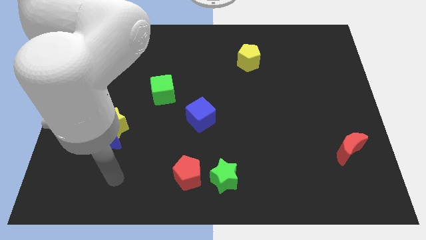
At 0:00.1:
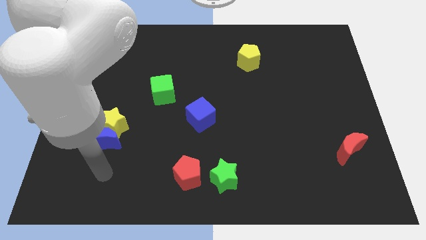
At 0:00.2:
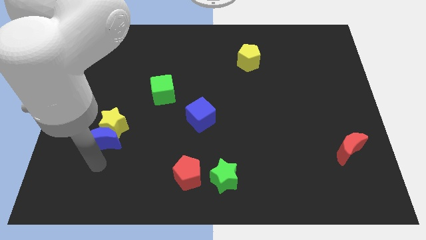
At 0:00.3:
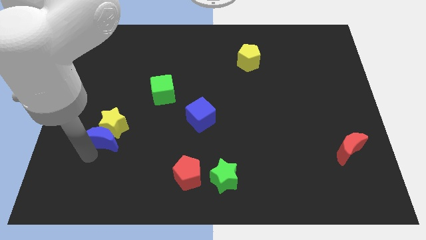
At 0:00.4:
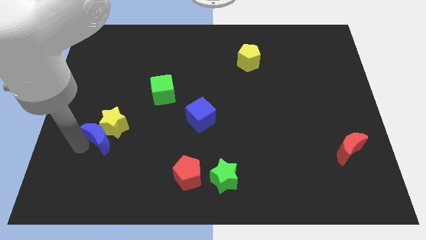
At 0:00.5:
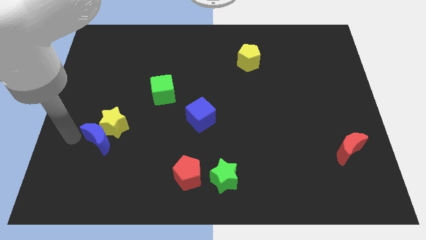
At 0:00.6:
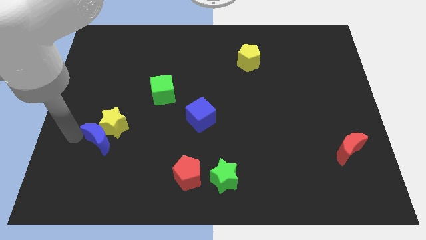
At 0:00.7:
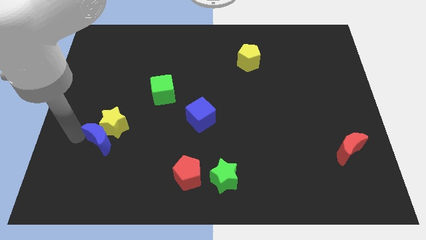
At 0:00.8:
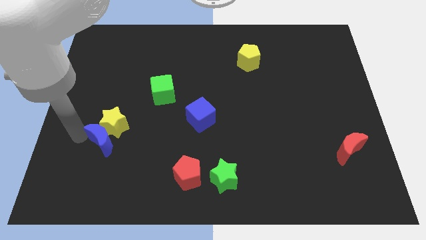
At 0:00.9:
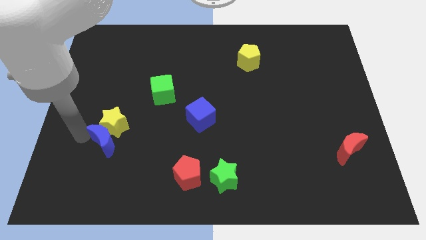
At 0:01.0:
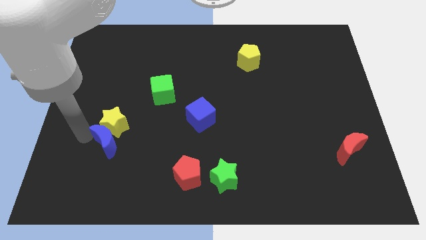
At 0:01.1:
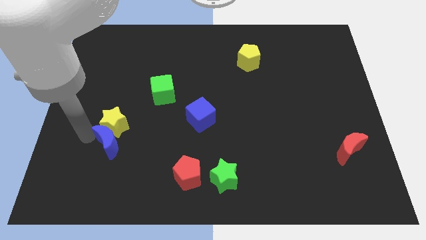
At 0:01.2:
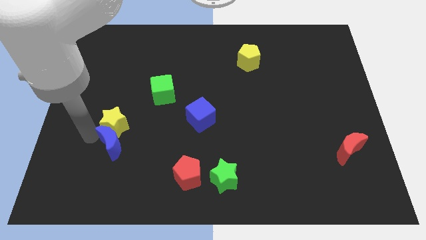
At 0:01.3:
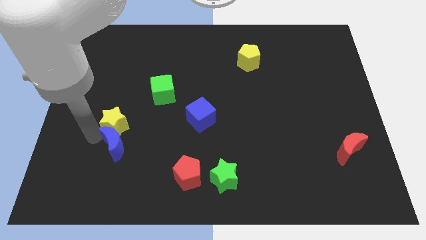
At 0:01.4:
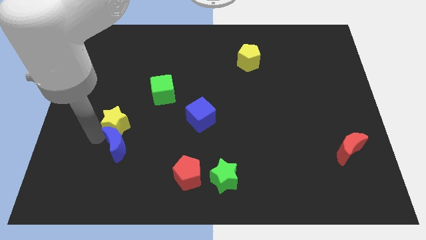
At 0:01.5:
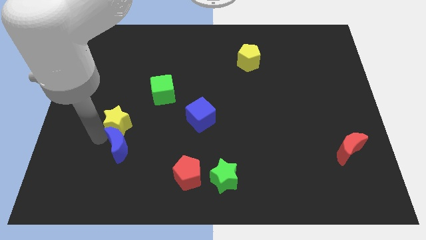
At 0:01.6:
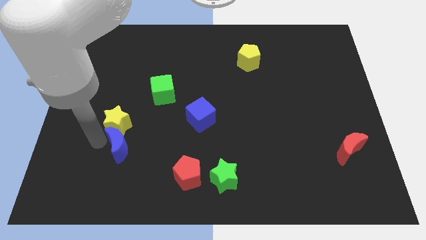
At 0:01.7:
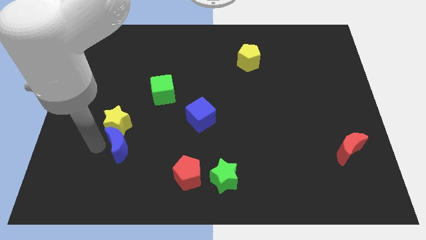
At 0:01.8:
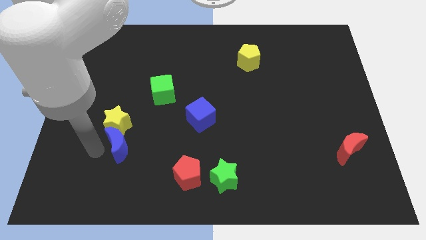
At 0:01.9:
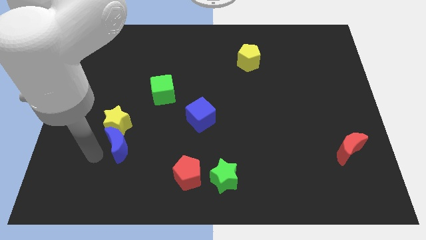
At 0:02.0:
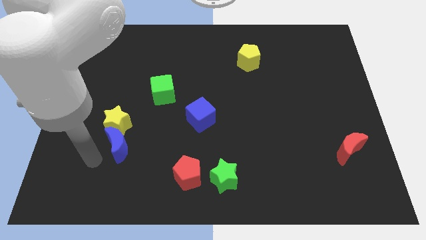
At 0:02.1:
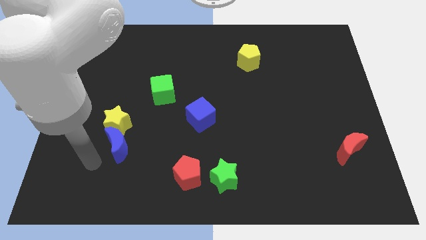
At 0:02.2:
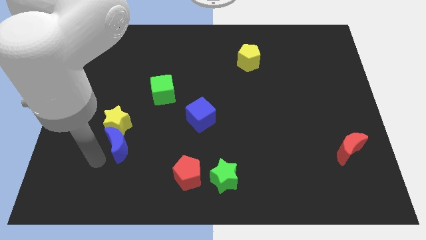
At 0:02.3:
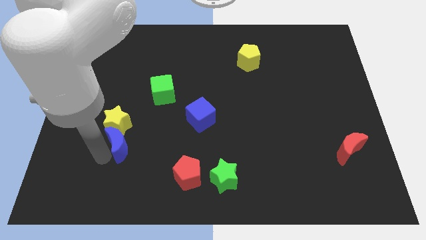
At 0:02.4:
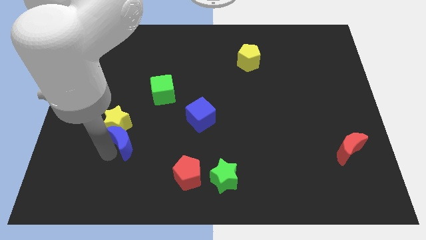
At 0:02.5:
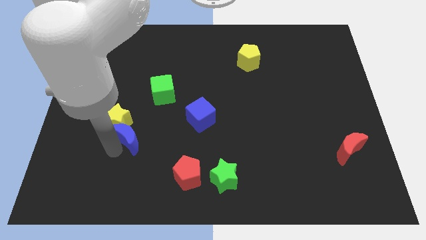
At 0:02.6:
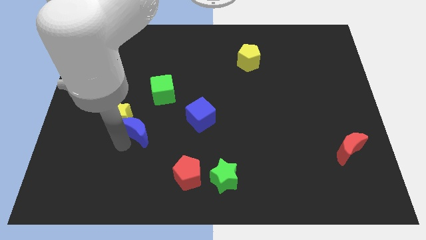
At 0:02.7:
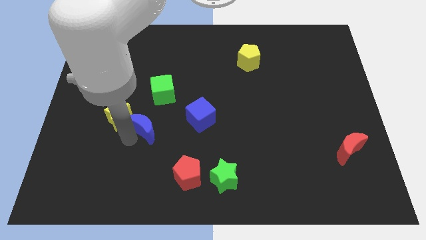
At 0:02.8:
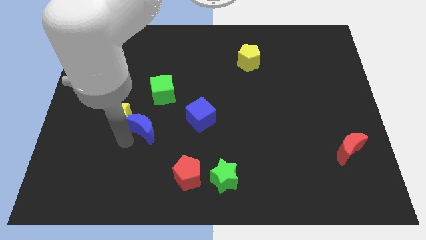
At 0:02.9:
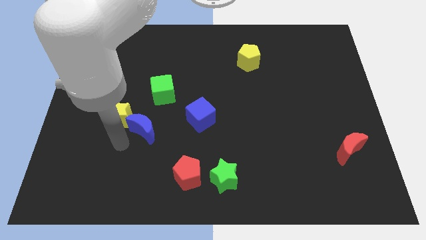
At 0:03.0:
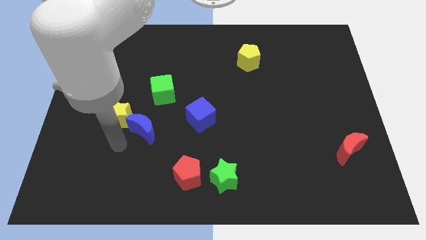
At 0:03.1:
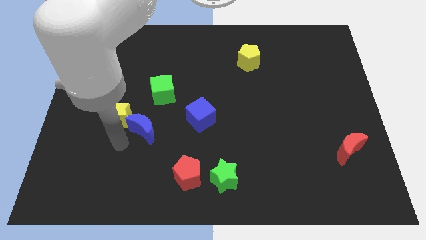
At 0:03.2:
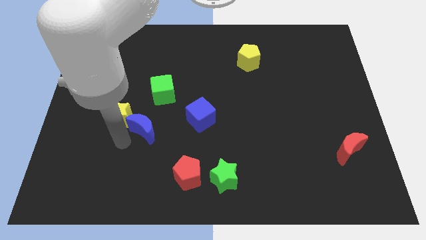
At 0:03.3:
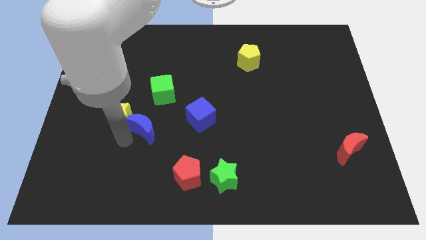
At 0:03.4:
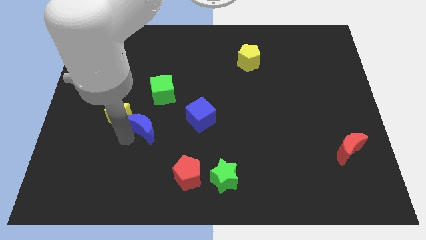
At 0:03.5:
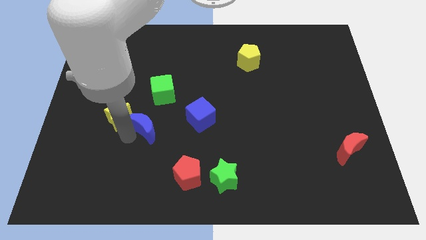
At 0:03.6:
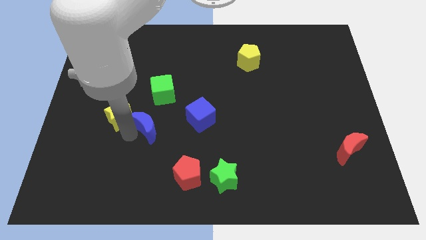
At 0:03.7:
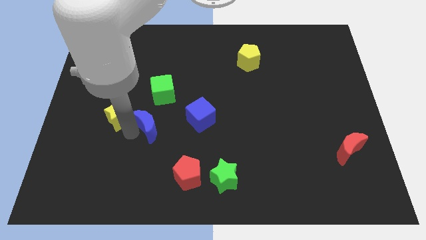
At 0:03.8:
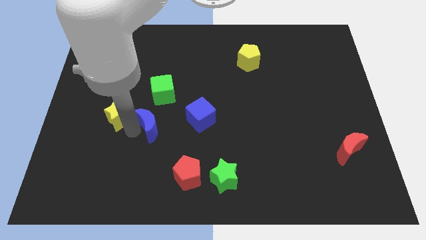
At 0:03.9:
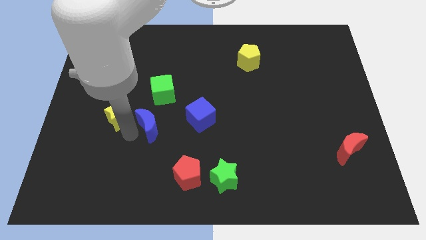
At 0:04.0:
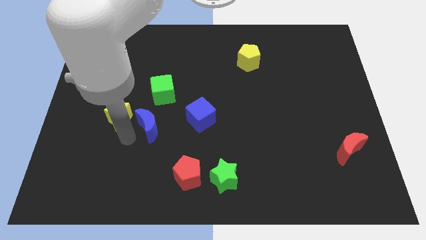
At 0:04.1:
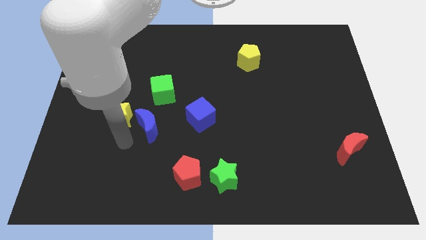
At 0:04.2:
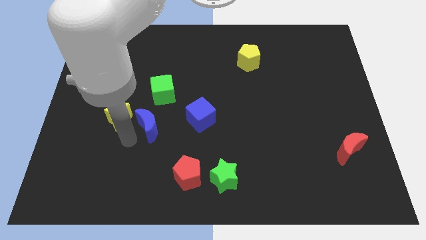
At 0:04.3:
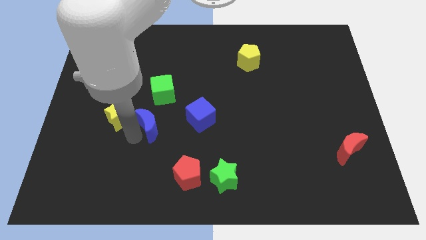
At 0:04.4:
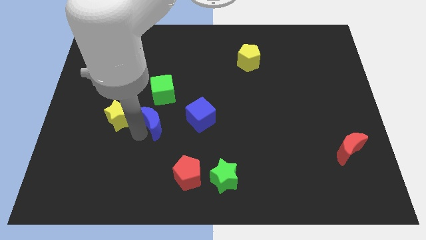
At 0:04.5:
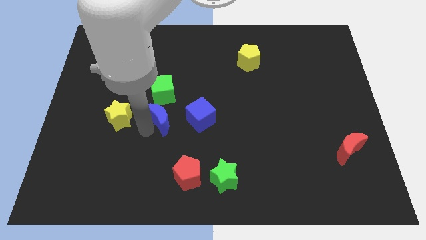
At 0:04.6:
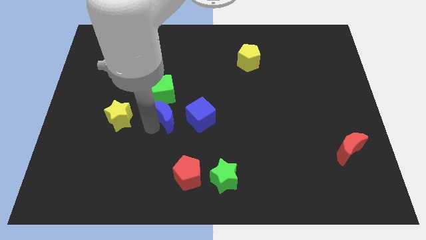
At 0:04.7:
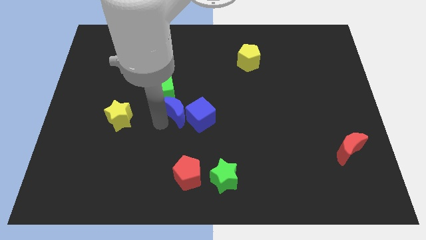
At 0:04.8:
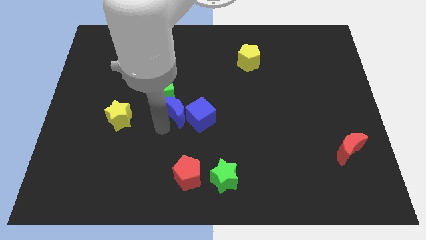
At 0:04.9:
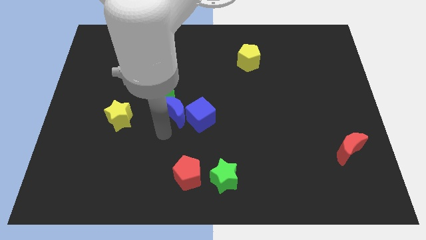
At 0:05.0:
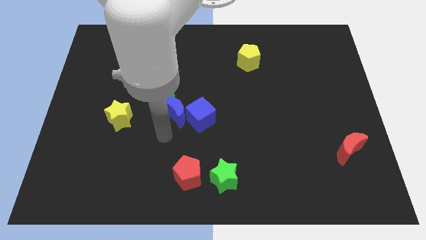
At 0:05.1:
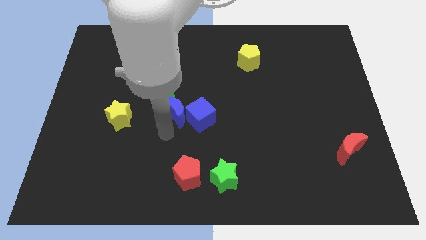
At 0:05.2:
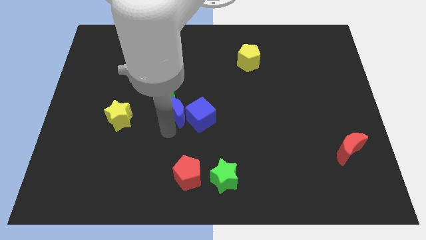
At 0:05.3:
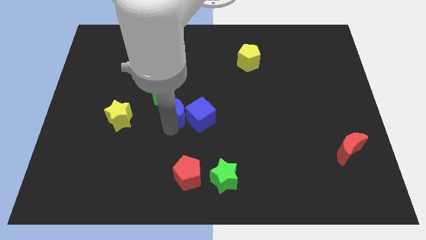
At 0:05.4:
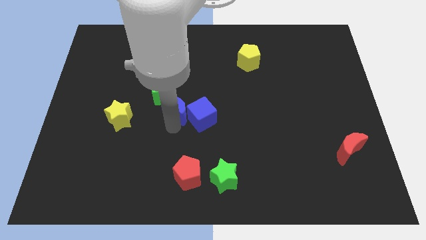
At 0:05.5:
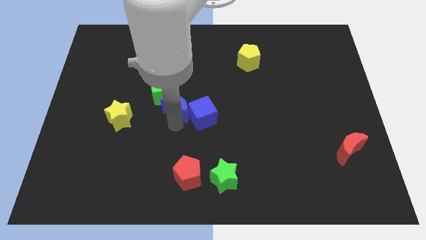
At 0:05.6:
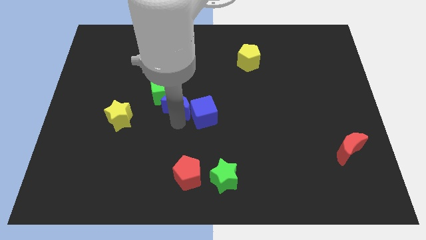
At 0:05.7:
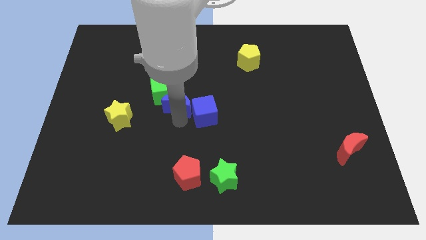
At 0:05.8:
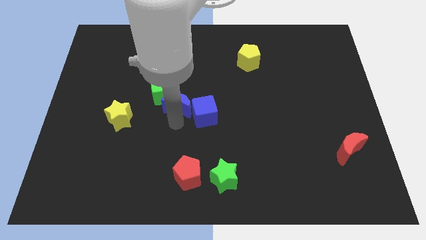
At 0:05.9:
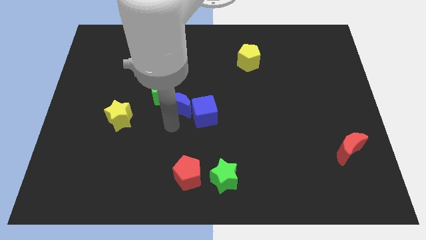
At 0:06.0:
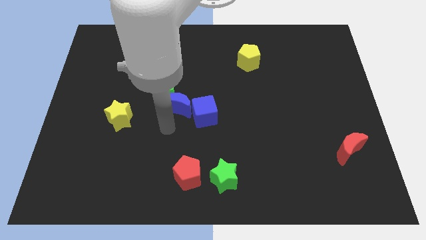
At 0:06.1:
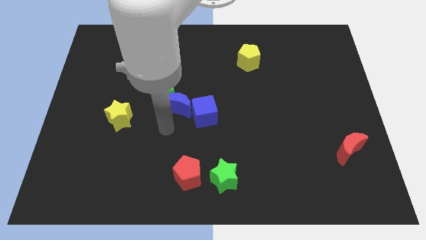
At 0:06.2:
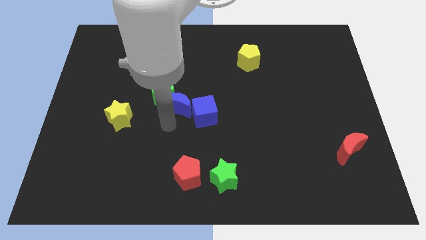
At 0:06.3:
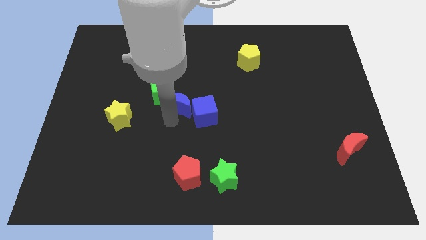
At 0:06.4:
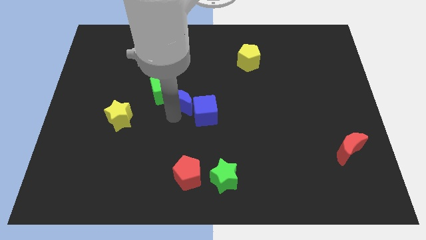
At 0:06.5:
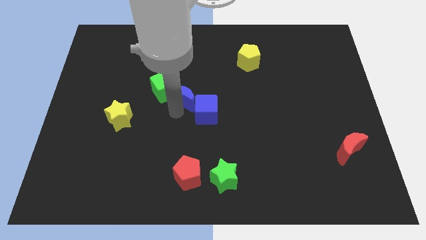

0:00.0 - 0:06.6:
move the blue moon diagonally up and to the right

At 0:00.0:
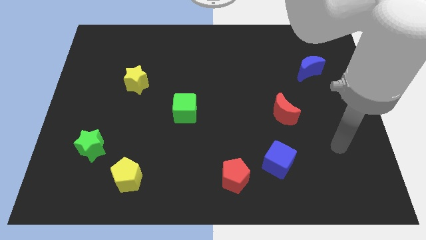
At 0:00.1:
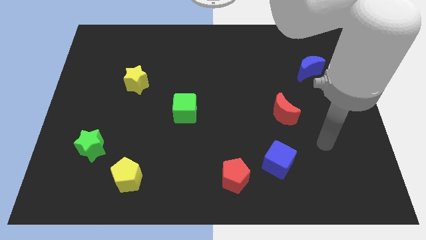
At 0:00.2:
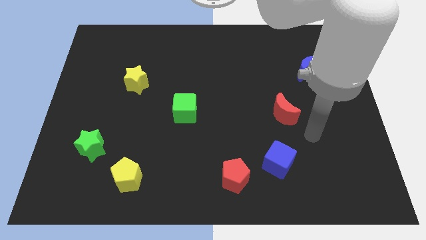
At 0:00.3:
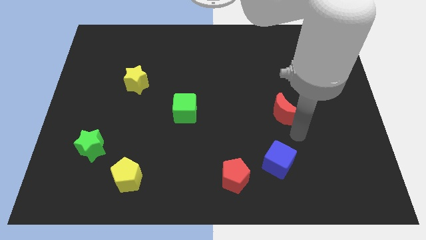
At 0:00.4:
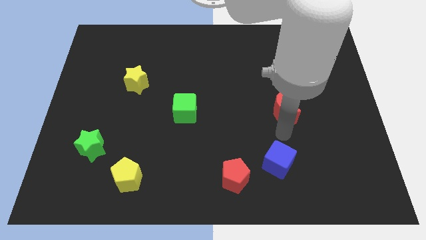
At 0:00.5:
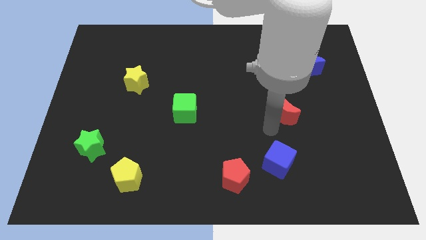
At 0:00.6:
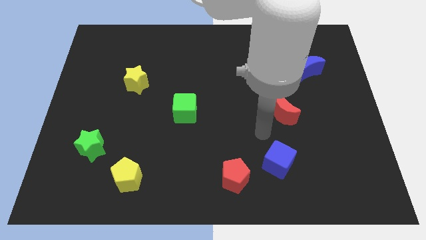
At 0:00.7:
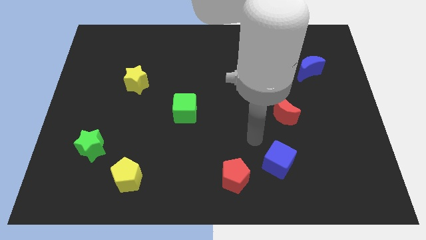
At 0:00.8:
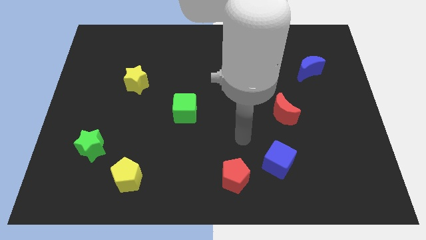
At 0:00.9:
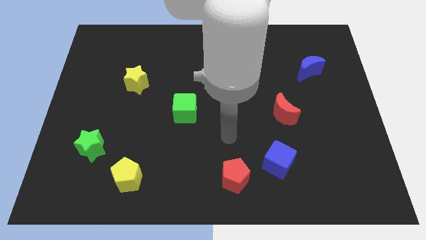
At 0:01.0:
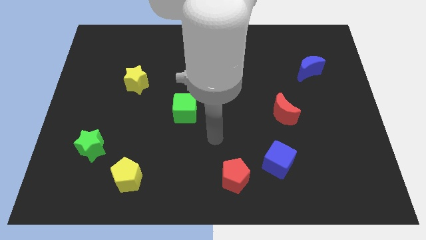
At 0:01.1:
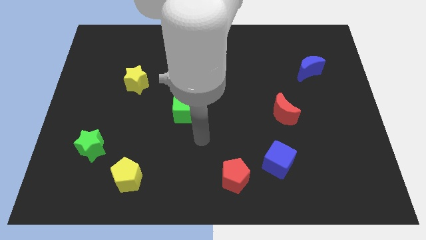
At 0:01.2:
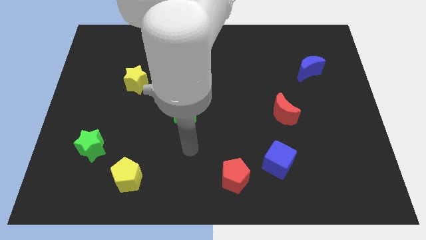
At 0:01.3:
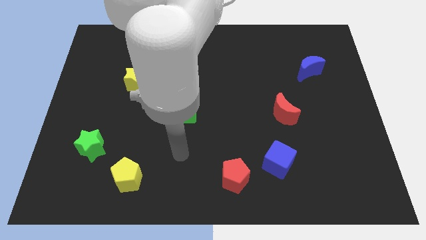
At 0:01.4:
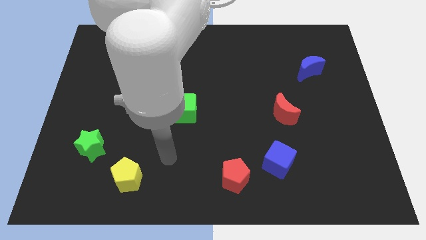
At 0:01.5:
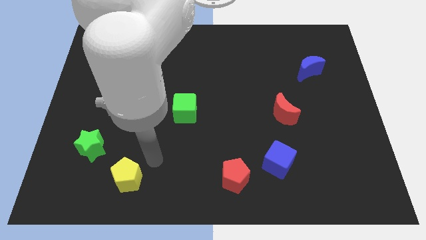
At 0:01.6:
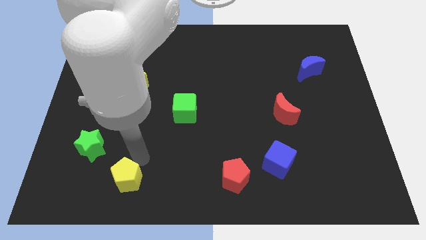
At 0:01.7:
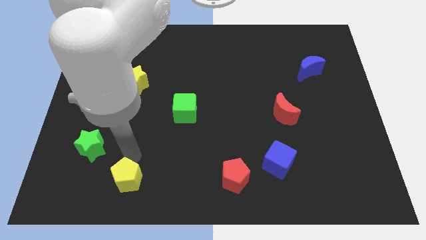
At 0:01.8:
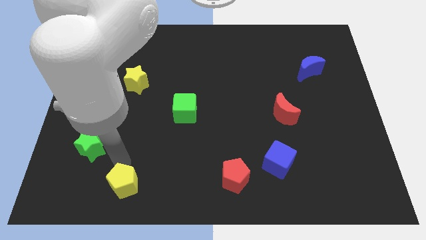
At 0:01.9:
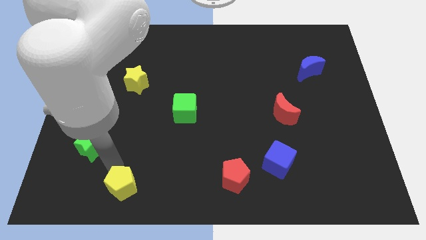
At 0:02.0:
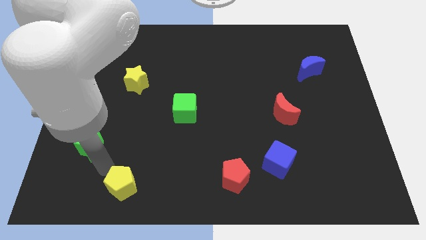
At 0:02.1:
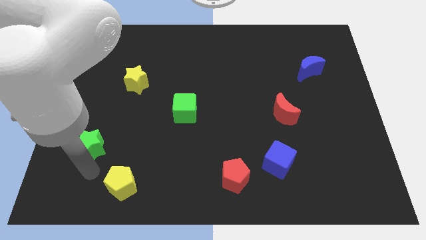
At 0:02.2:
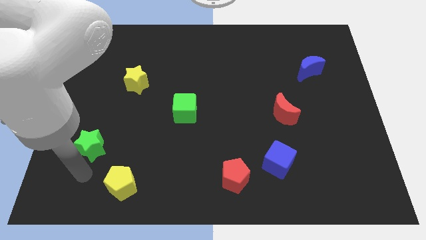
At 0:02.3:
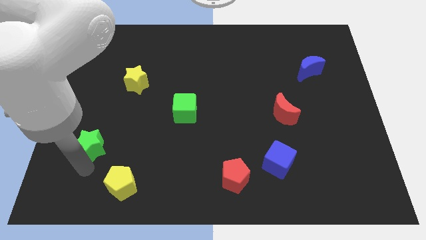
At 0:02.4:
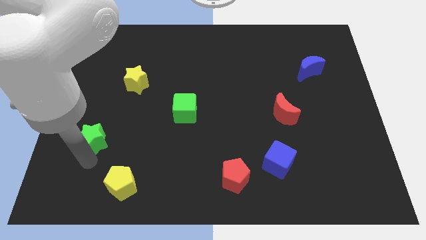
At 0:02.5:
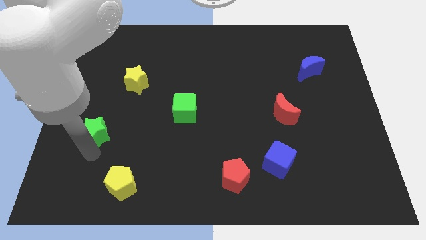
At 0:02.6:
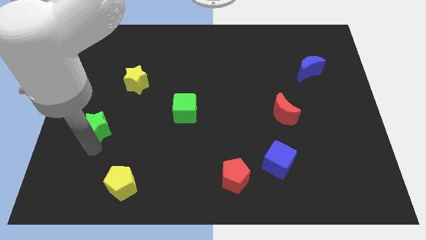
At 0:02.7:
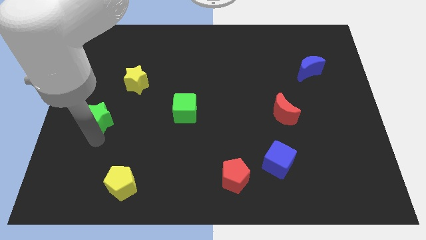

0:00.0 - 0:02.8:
slightly push the green star up
